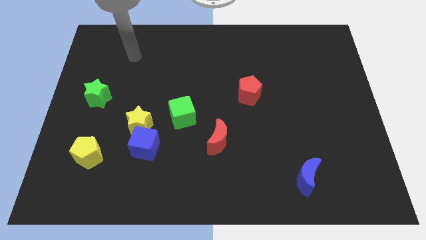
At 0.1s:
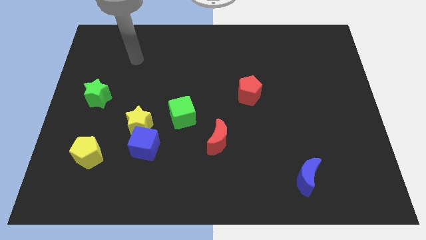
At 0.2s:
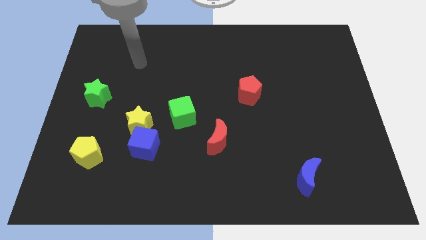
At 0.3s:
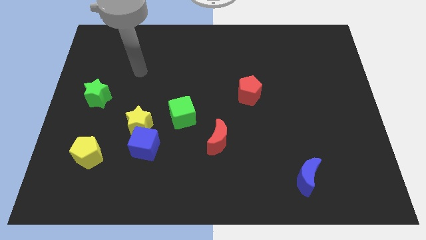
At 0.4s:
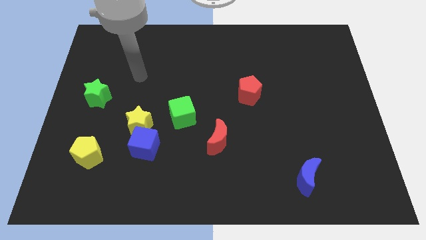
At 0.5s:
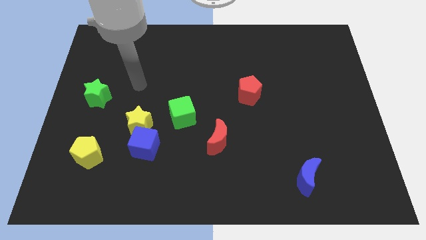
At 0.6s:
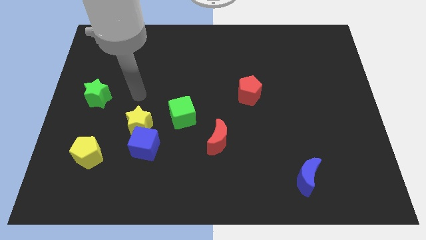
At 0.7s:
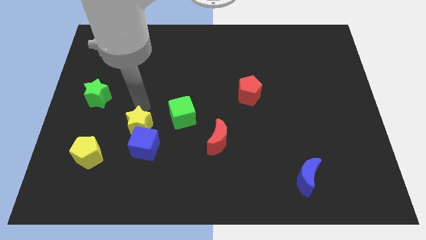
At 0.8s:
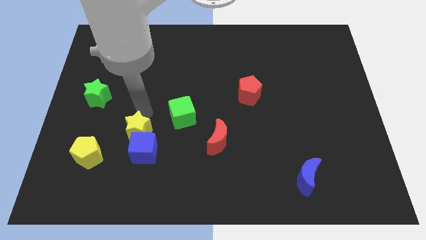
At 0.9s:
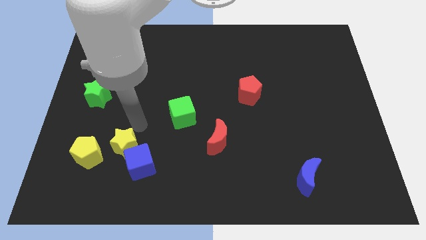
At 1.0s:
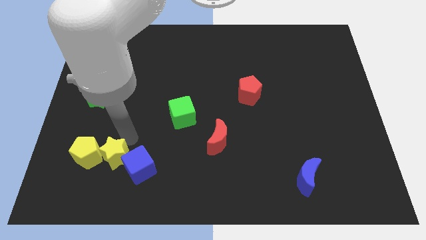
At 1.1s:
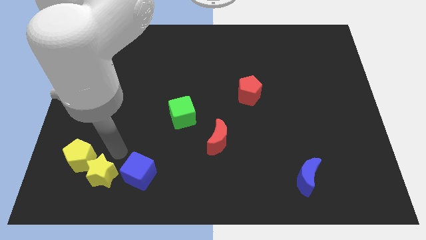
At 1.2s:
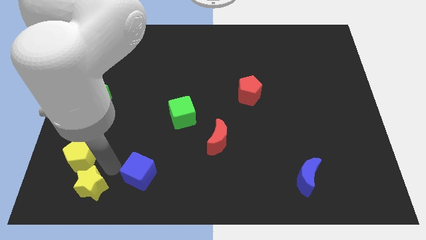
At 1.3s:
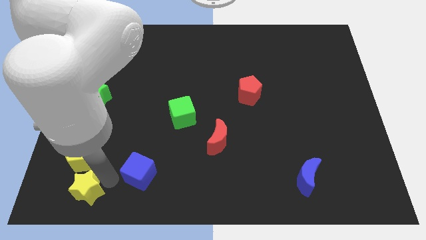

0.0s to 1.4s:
pull the blue cube apart from the yellow star

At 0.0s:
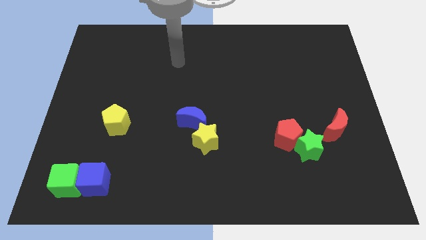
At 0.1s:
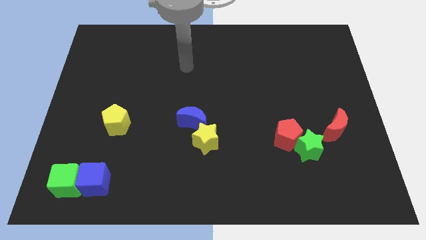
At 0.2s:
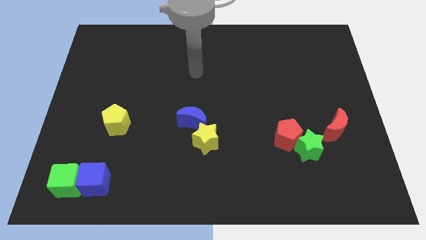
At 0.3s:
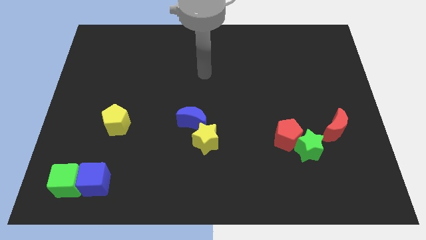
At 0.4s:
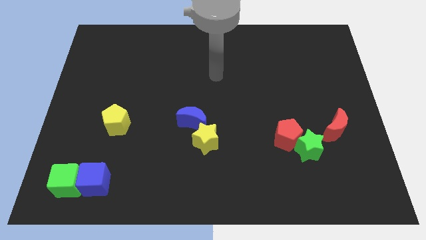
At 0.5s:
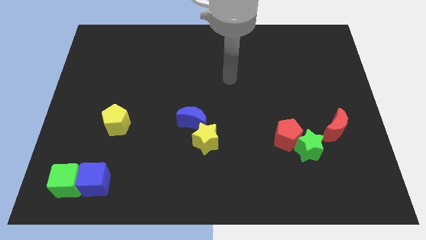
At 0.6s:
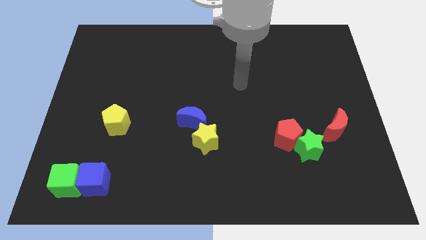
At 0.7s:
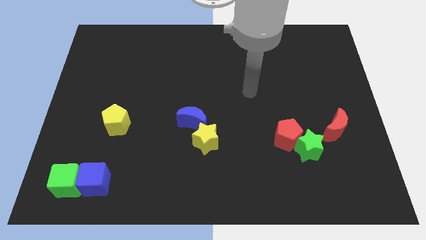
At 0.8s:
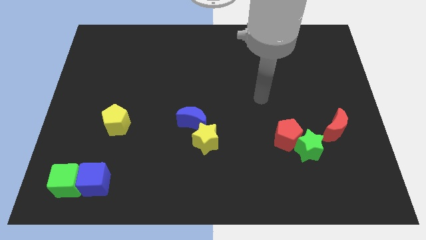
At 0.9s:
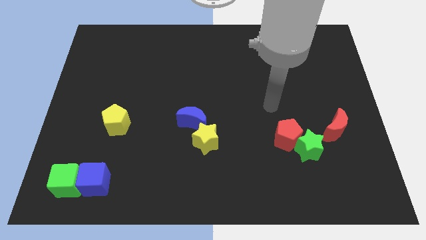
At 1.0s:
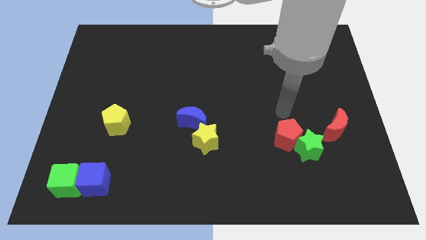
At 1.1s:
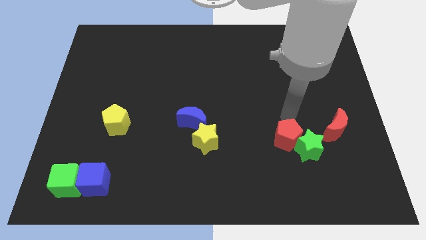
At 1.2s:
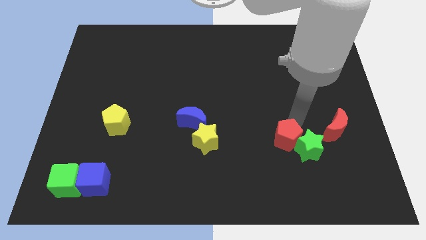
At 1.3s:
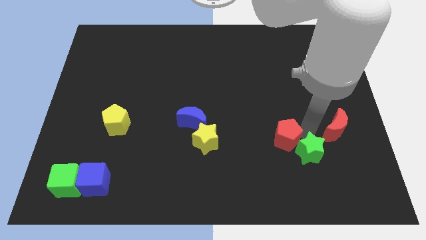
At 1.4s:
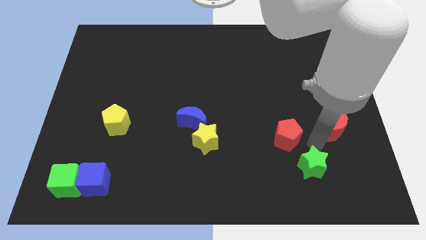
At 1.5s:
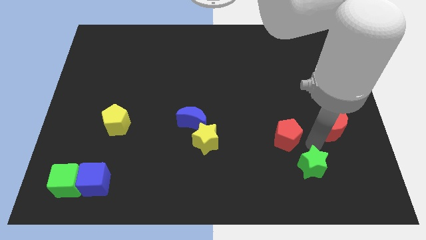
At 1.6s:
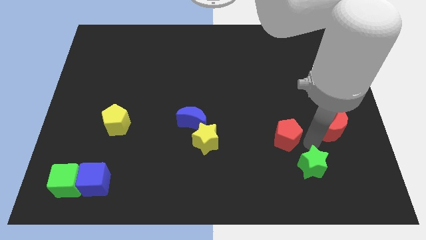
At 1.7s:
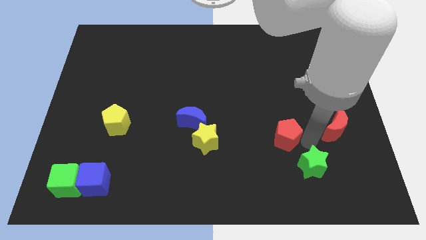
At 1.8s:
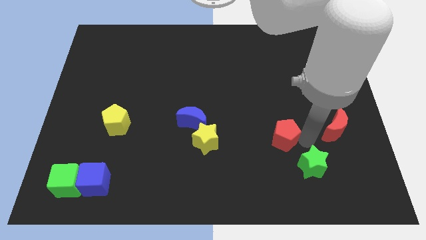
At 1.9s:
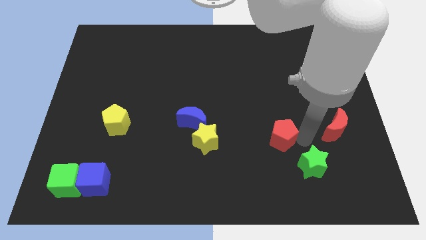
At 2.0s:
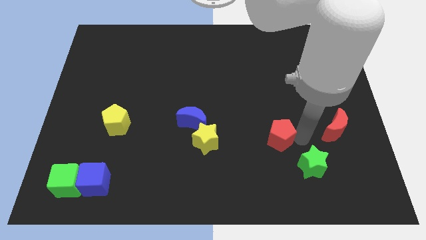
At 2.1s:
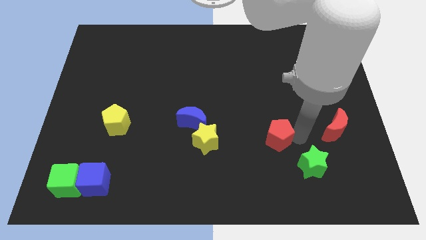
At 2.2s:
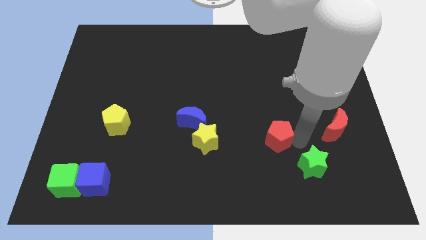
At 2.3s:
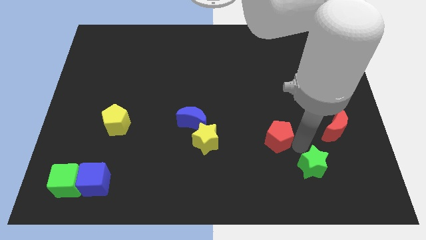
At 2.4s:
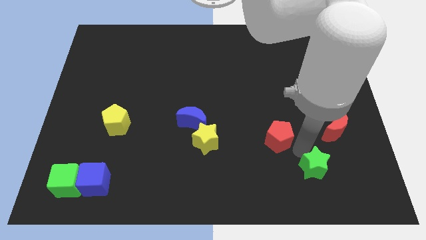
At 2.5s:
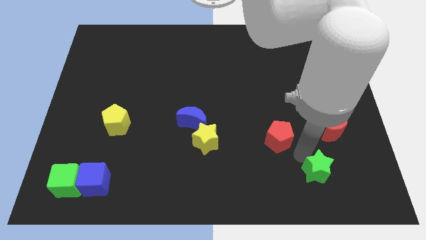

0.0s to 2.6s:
separate the red pentagon from the green star

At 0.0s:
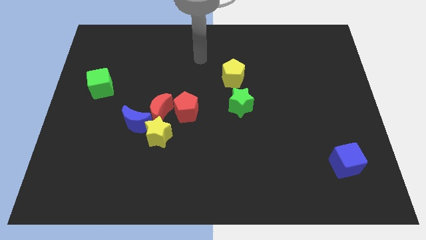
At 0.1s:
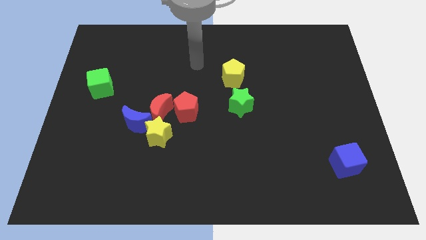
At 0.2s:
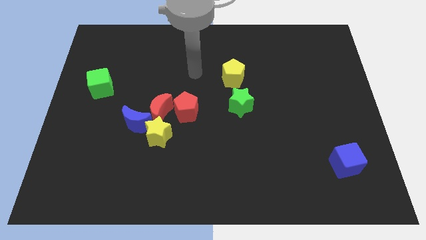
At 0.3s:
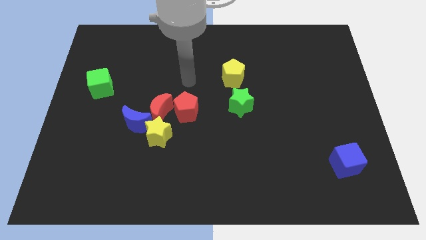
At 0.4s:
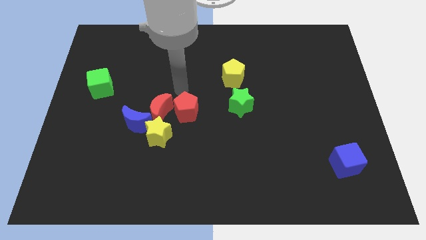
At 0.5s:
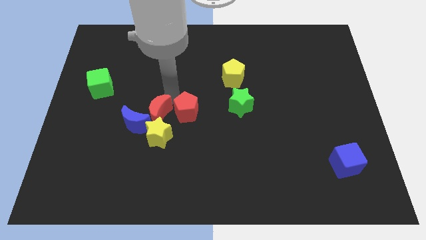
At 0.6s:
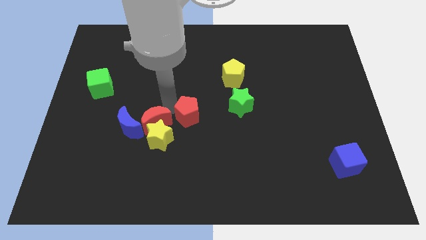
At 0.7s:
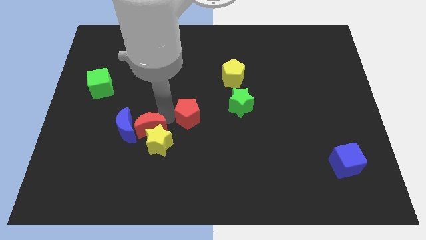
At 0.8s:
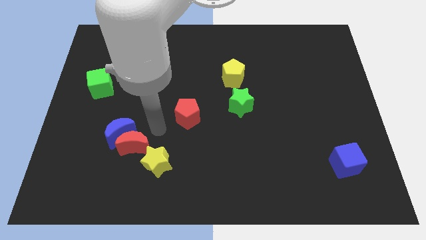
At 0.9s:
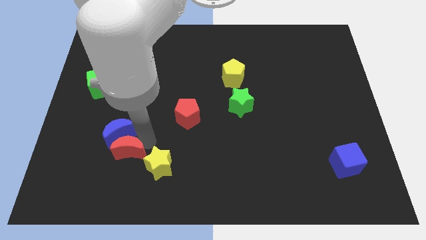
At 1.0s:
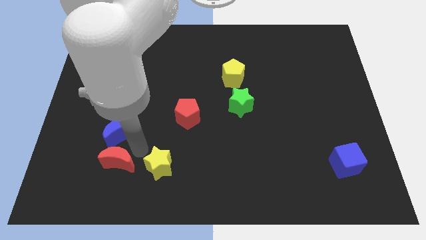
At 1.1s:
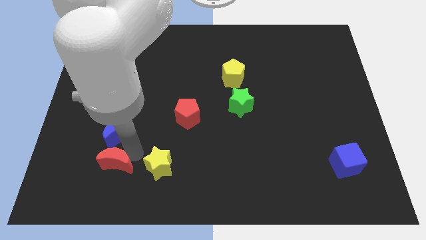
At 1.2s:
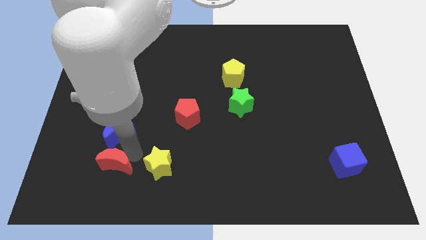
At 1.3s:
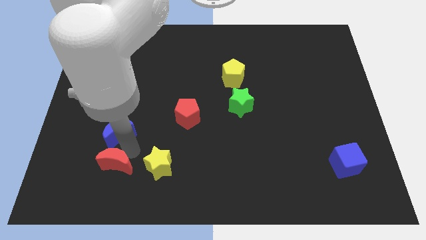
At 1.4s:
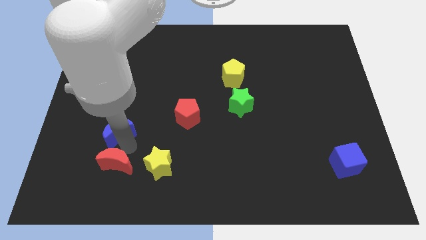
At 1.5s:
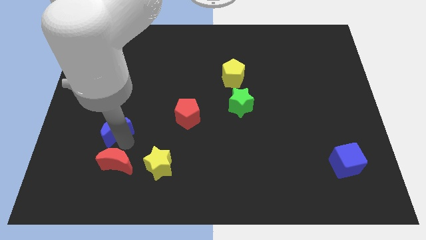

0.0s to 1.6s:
separate the blue moon from the yellow star and red moon

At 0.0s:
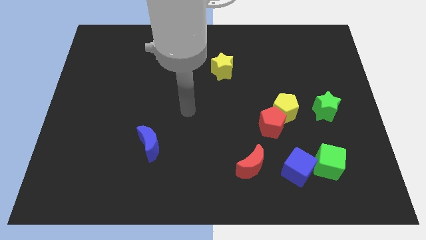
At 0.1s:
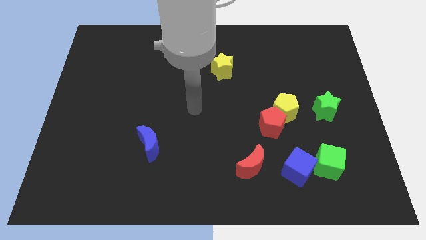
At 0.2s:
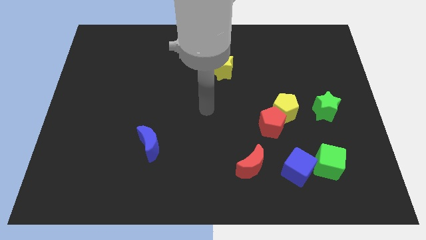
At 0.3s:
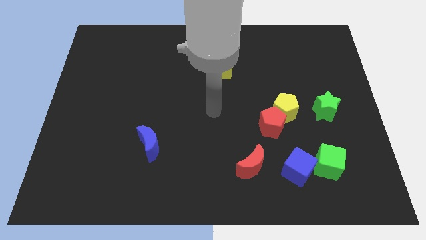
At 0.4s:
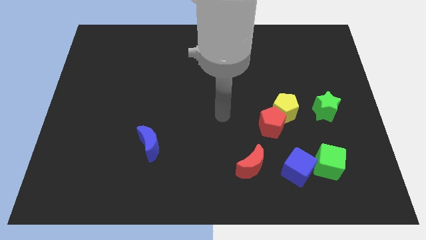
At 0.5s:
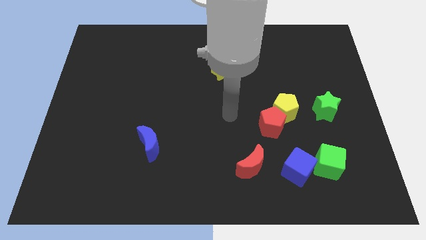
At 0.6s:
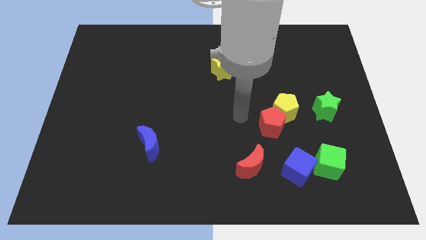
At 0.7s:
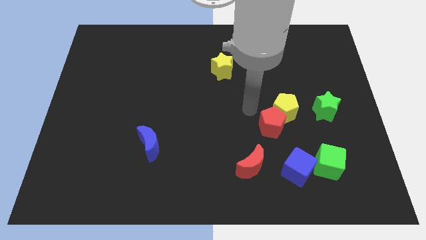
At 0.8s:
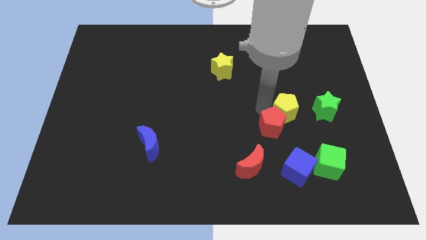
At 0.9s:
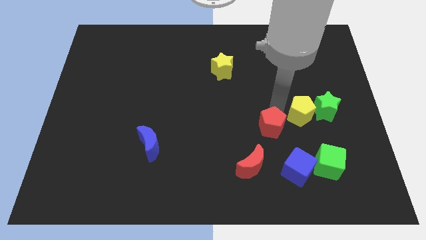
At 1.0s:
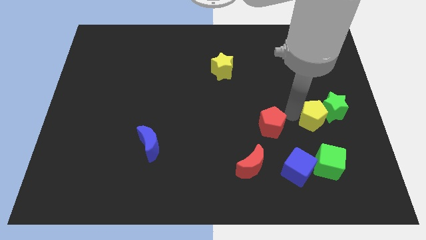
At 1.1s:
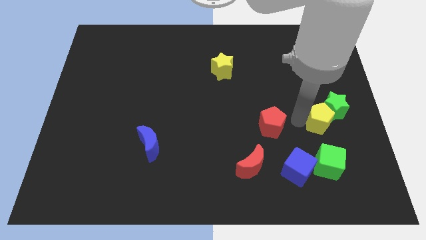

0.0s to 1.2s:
move the red pentagon away from the yellow pentagon

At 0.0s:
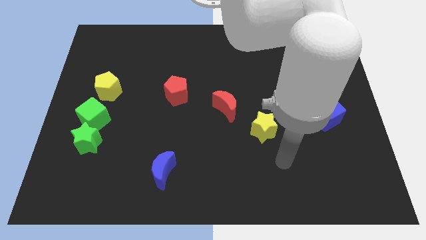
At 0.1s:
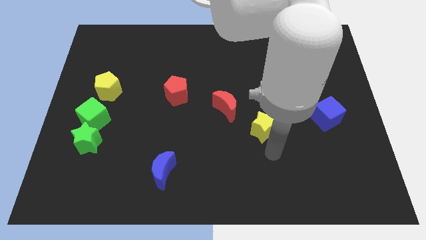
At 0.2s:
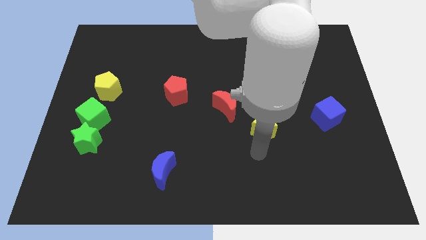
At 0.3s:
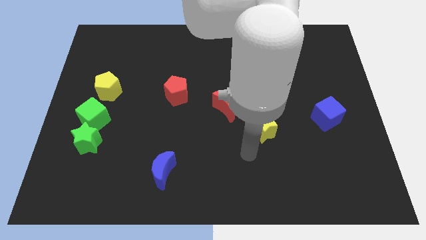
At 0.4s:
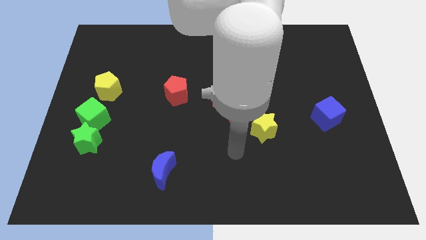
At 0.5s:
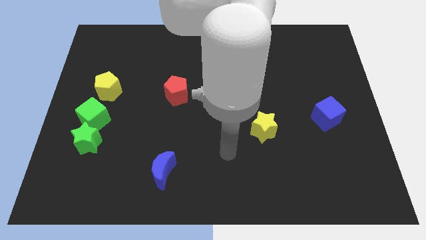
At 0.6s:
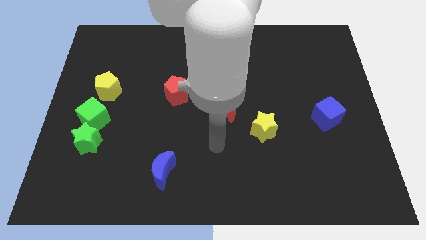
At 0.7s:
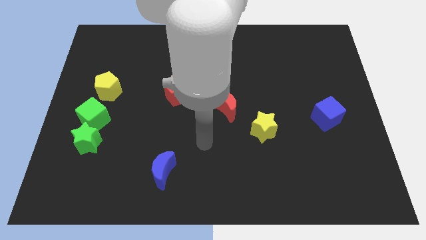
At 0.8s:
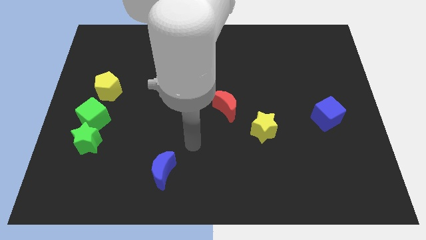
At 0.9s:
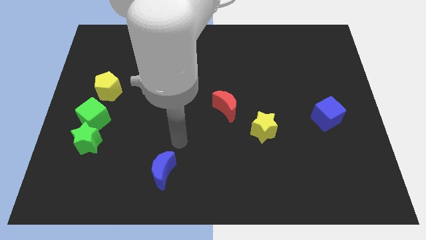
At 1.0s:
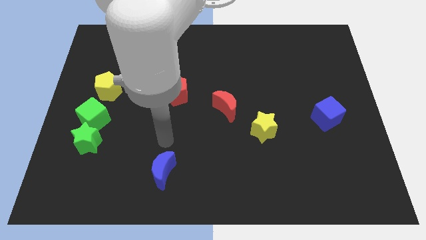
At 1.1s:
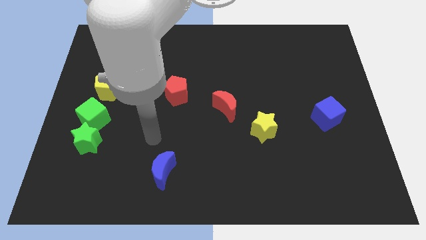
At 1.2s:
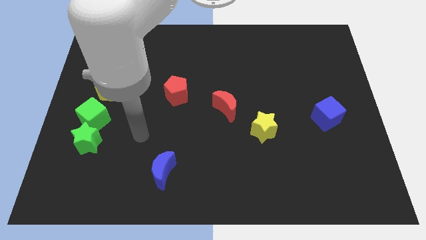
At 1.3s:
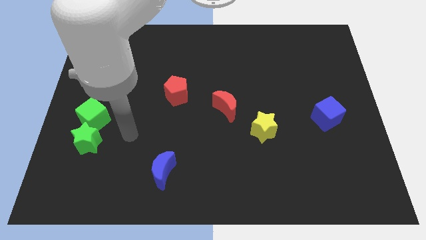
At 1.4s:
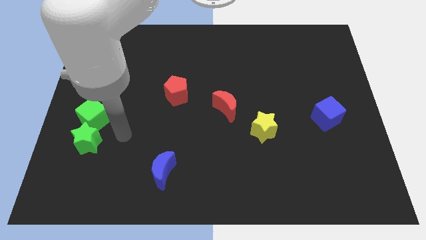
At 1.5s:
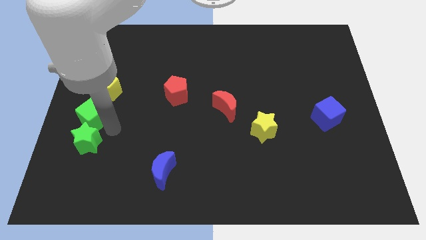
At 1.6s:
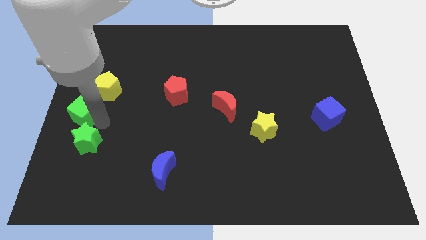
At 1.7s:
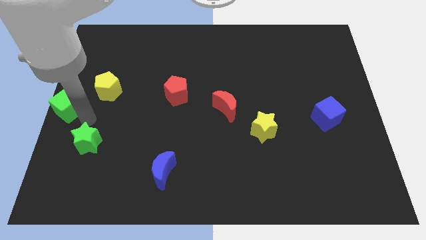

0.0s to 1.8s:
move the green star away from the green cube

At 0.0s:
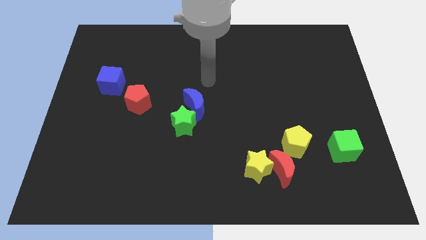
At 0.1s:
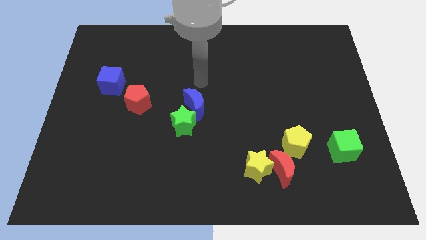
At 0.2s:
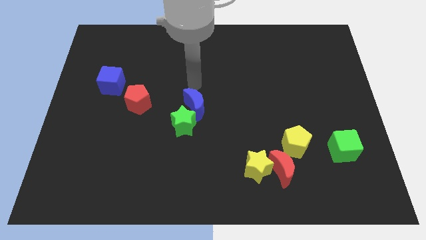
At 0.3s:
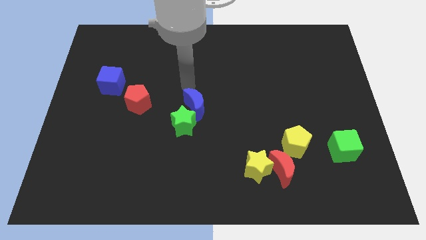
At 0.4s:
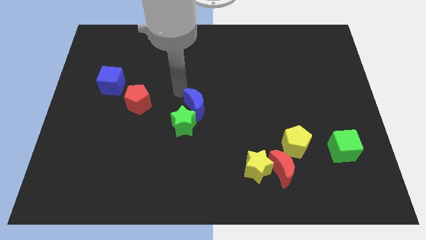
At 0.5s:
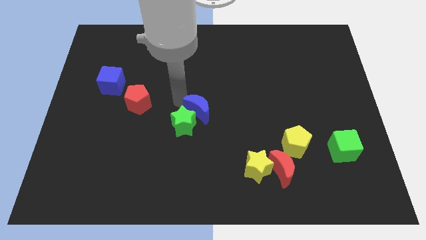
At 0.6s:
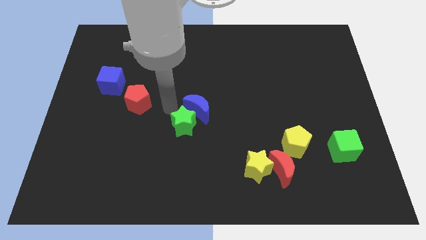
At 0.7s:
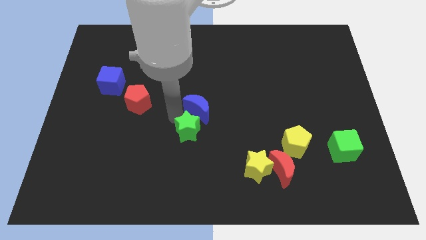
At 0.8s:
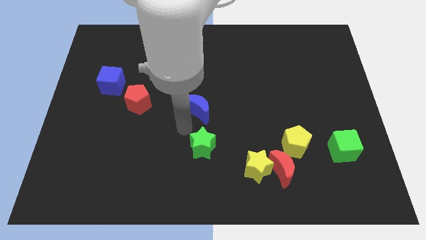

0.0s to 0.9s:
separate the blue moon from the green star
